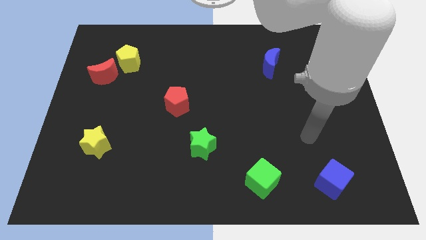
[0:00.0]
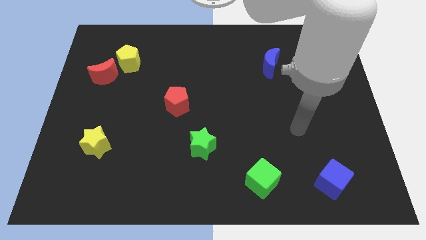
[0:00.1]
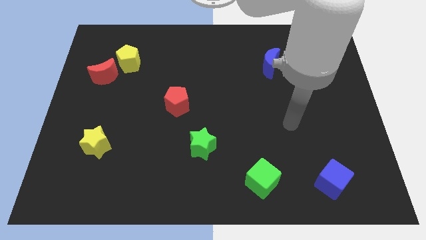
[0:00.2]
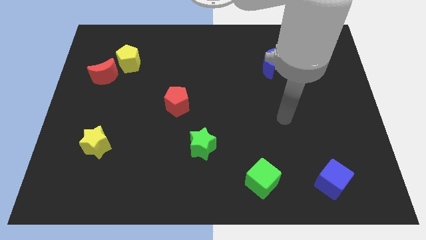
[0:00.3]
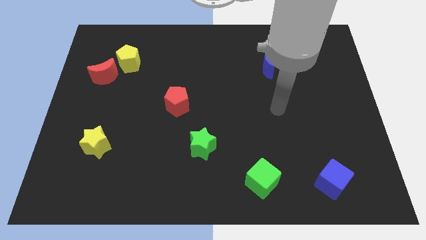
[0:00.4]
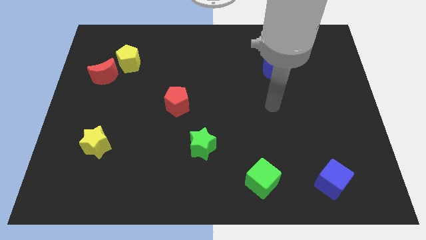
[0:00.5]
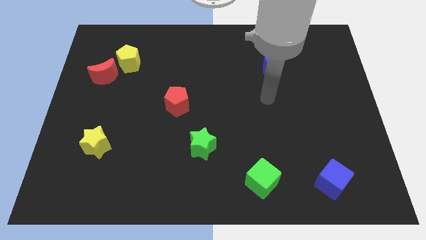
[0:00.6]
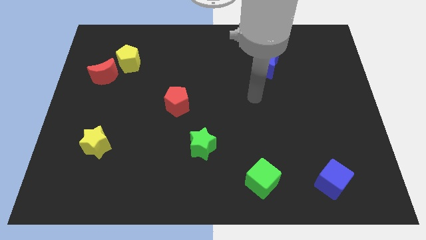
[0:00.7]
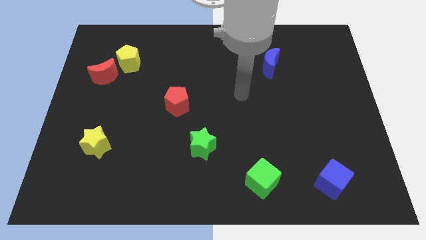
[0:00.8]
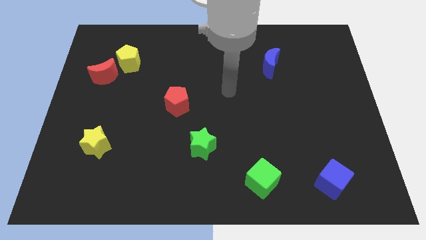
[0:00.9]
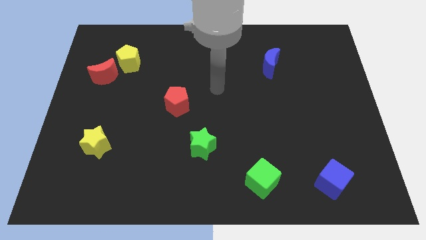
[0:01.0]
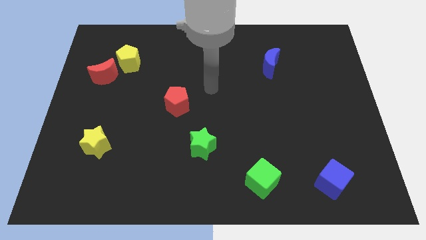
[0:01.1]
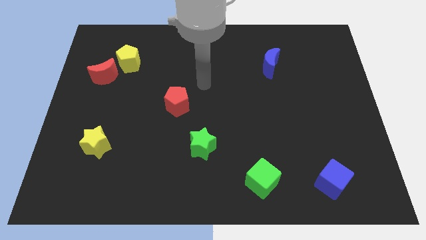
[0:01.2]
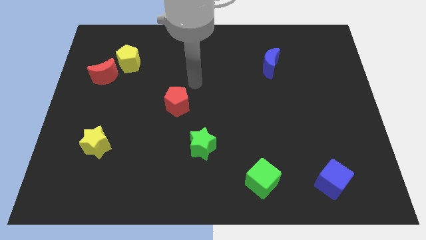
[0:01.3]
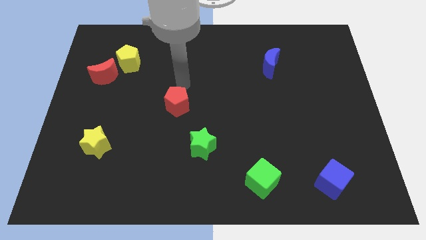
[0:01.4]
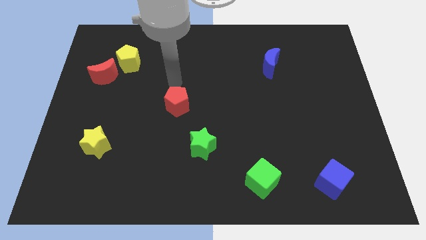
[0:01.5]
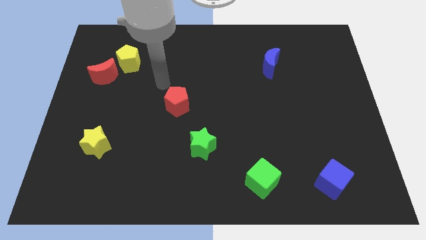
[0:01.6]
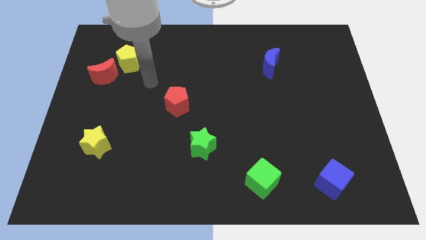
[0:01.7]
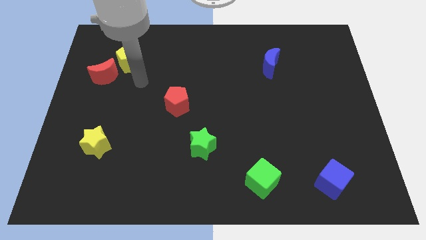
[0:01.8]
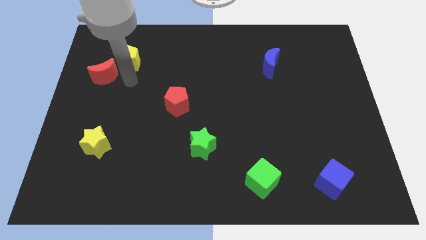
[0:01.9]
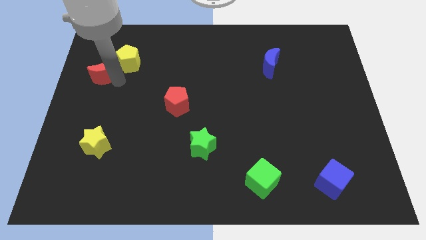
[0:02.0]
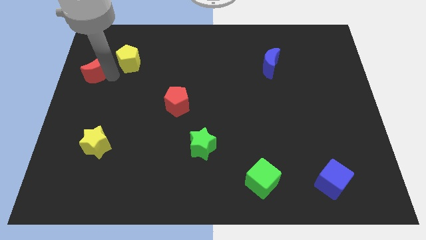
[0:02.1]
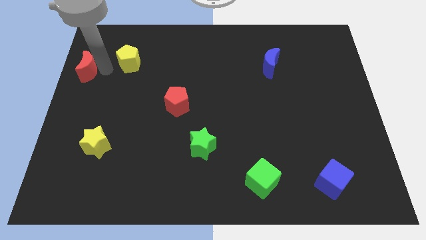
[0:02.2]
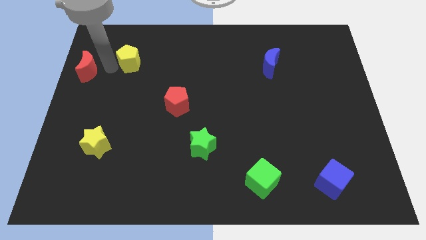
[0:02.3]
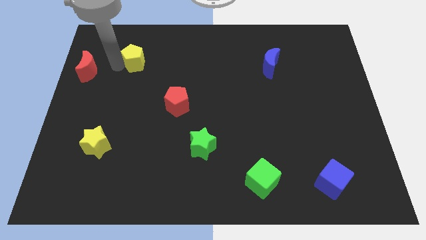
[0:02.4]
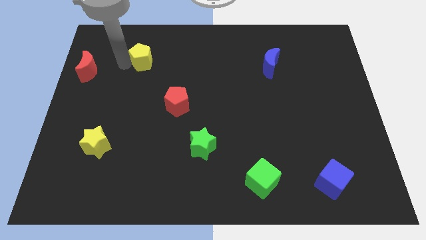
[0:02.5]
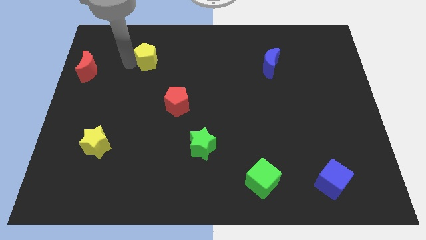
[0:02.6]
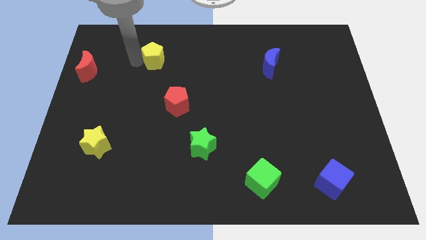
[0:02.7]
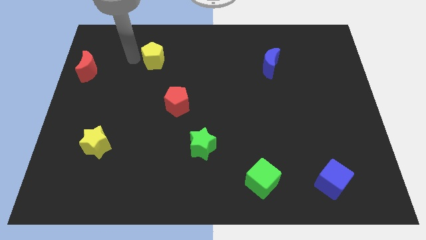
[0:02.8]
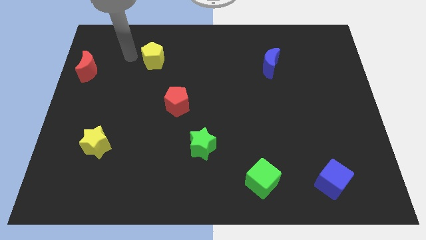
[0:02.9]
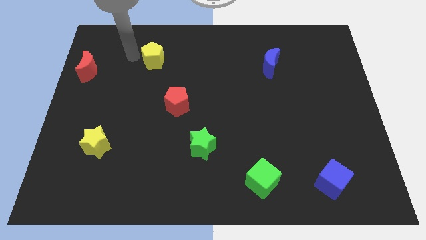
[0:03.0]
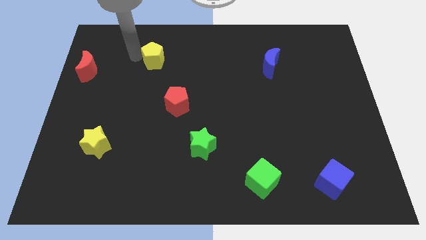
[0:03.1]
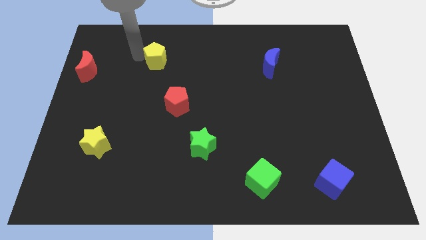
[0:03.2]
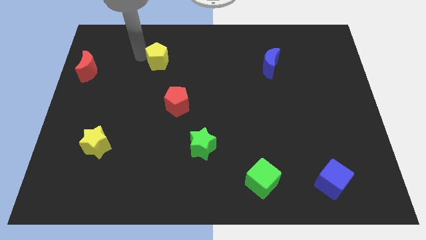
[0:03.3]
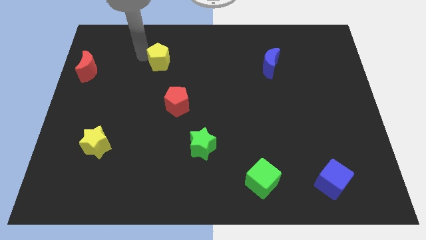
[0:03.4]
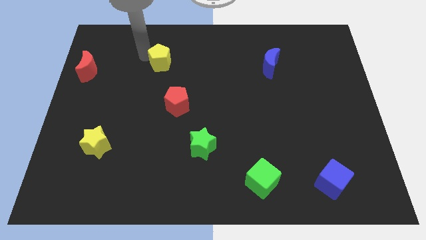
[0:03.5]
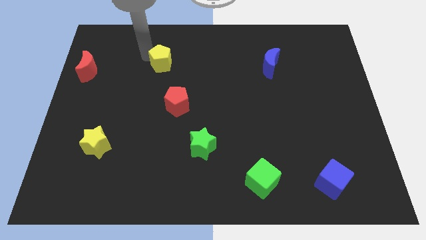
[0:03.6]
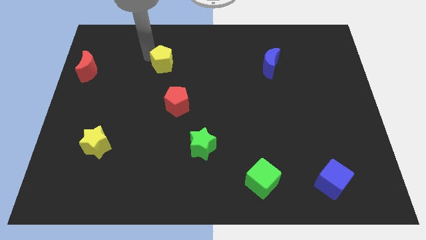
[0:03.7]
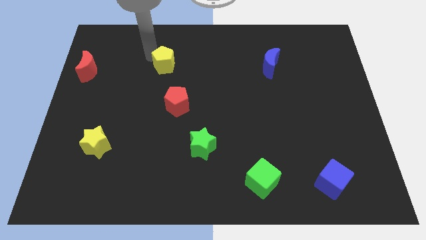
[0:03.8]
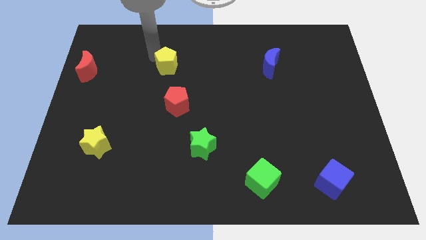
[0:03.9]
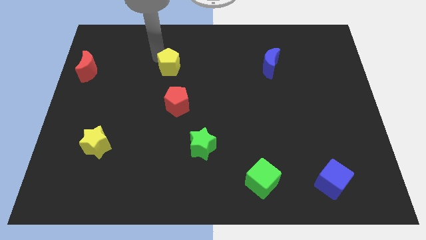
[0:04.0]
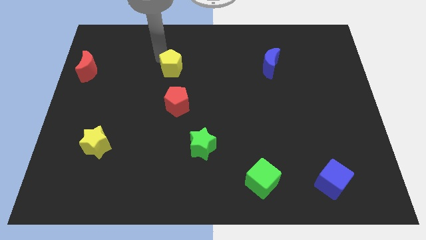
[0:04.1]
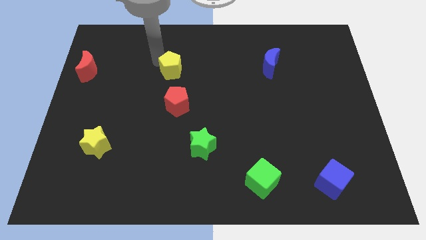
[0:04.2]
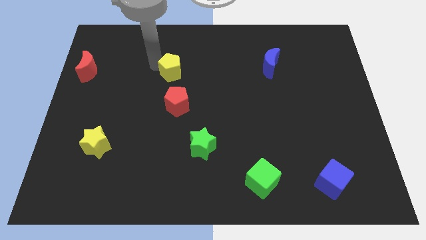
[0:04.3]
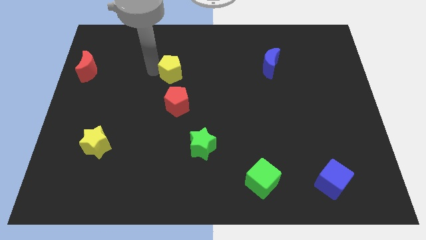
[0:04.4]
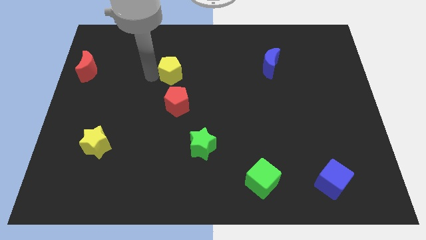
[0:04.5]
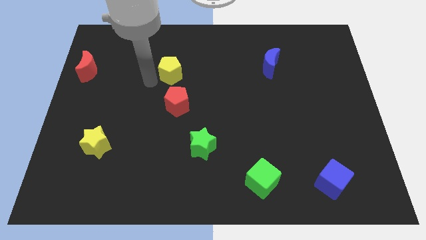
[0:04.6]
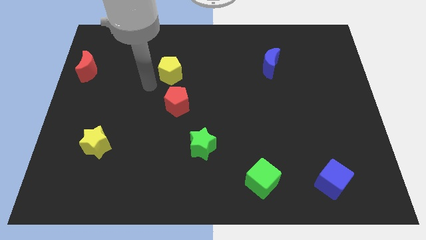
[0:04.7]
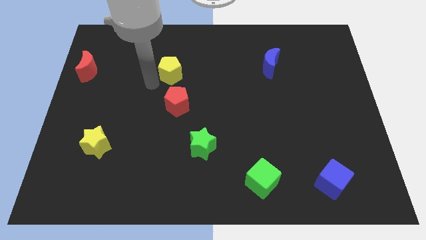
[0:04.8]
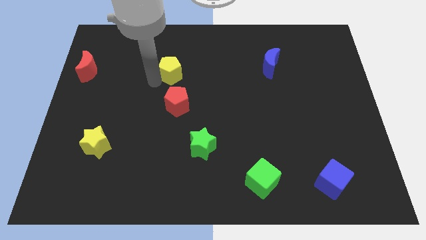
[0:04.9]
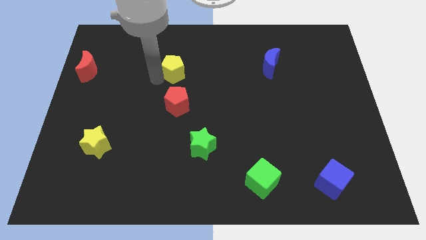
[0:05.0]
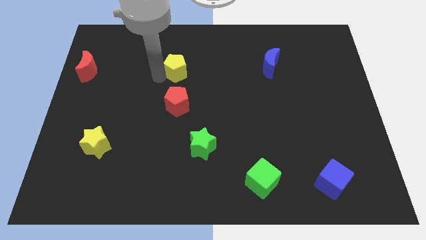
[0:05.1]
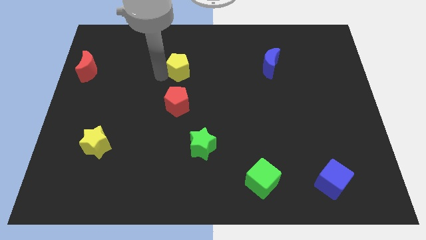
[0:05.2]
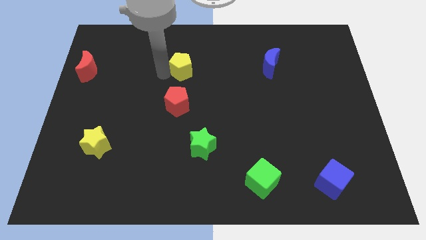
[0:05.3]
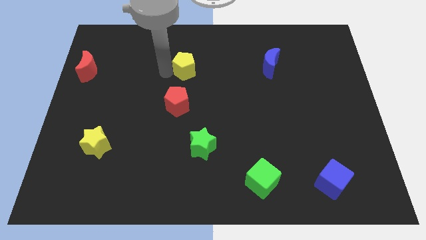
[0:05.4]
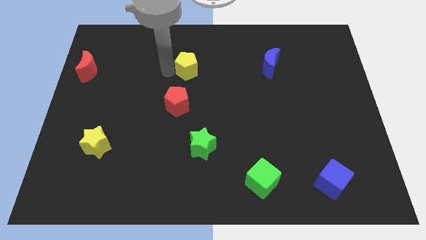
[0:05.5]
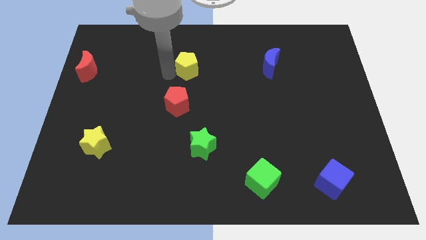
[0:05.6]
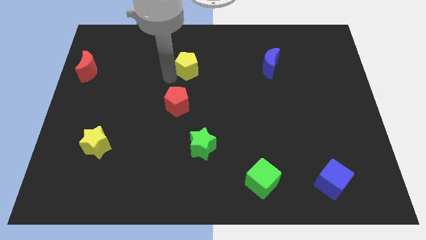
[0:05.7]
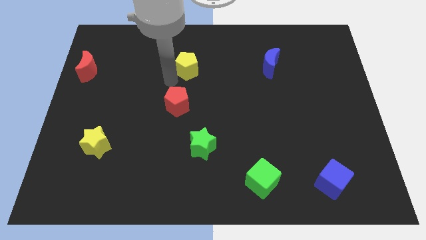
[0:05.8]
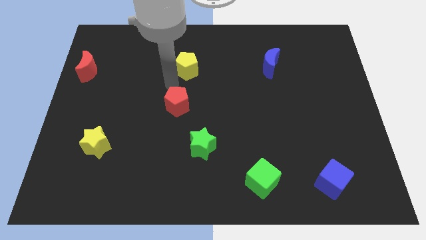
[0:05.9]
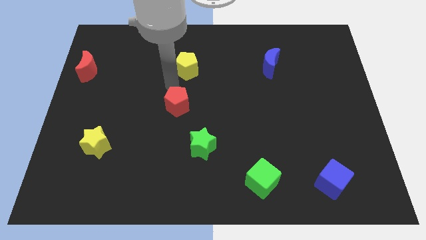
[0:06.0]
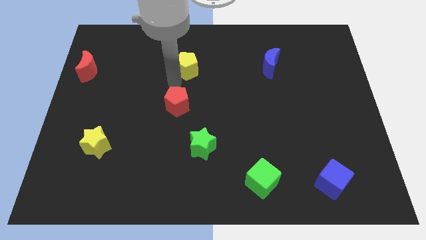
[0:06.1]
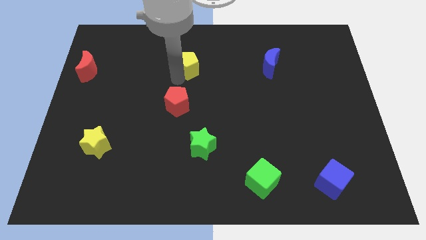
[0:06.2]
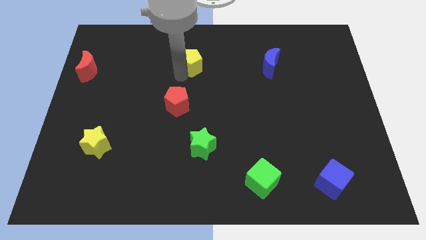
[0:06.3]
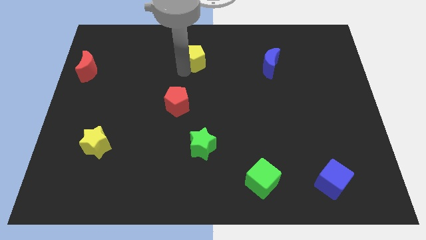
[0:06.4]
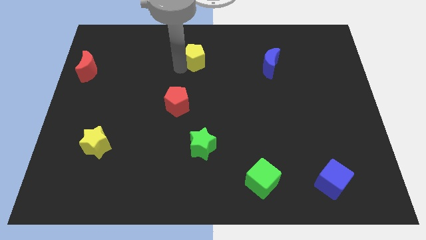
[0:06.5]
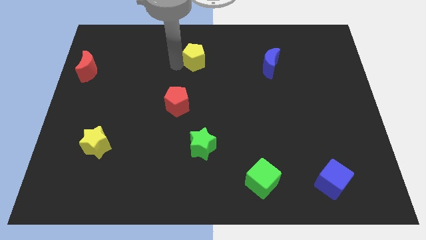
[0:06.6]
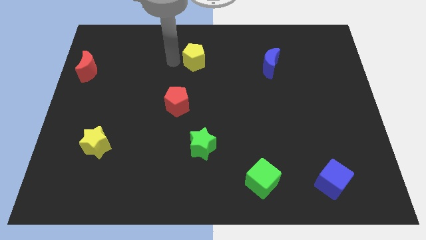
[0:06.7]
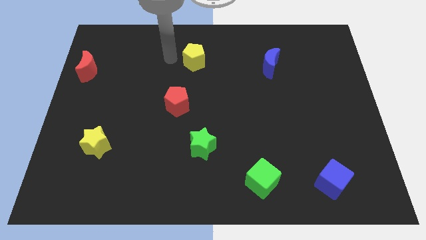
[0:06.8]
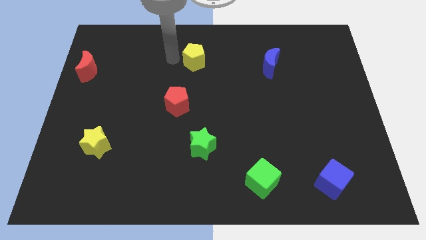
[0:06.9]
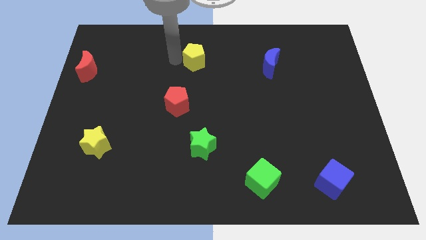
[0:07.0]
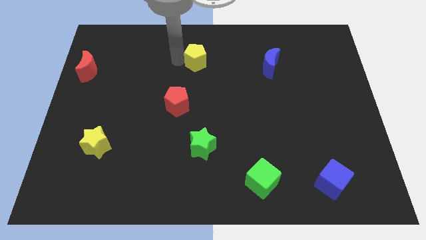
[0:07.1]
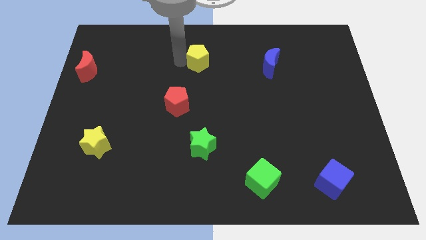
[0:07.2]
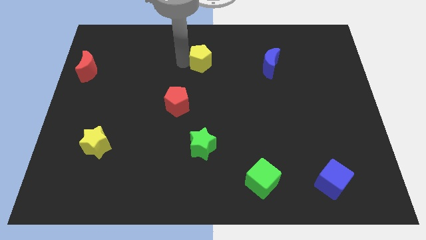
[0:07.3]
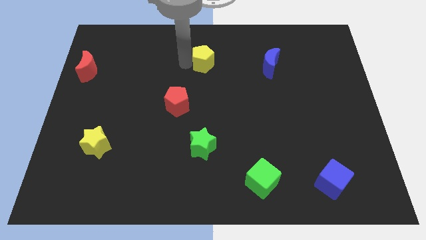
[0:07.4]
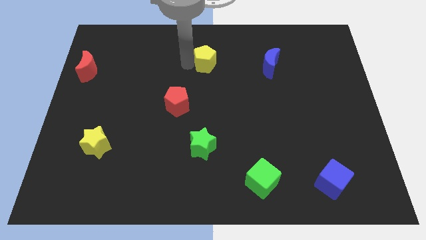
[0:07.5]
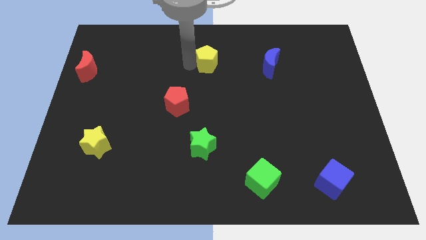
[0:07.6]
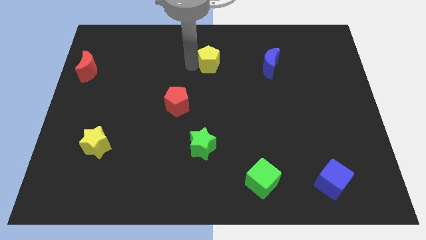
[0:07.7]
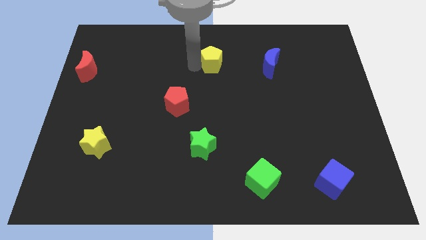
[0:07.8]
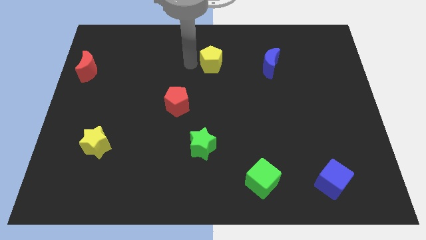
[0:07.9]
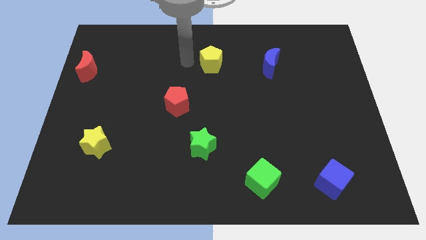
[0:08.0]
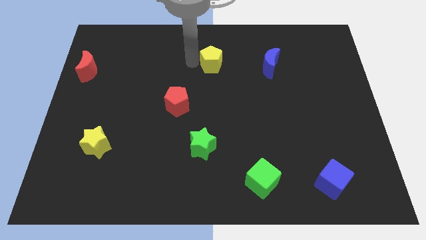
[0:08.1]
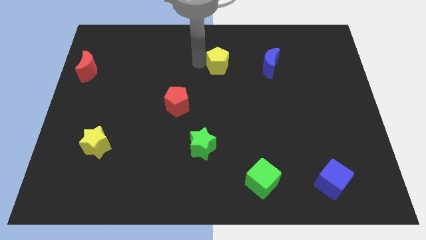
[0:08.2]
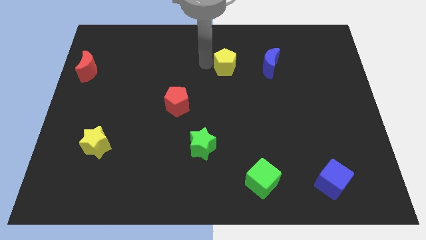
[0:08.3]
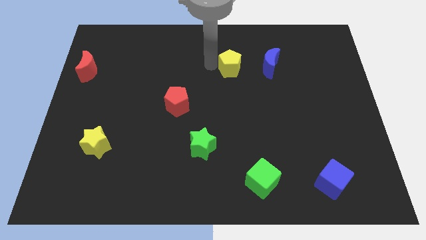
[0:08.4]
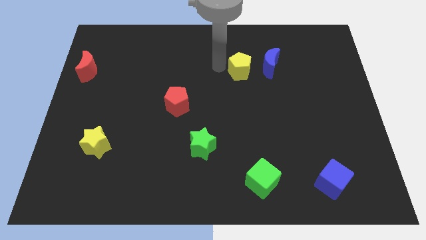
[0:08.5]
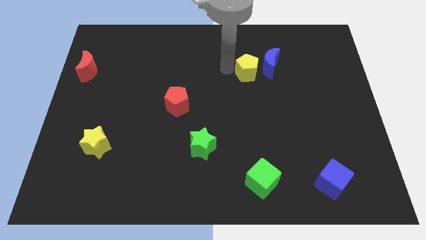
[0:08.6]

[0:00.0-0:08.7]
slide the yellow pentagon close to the blue moon
